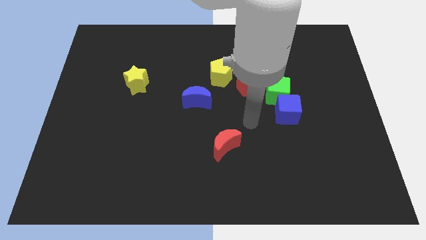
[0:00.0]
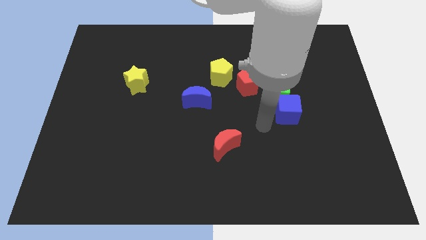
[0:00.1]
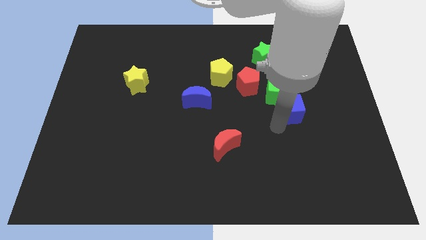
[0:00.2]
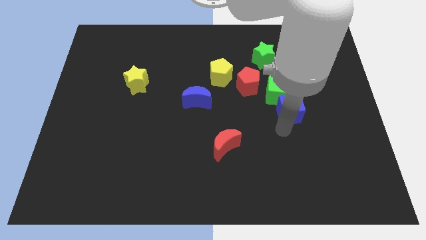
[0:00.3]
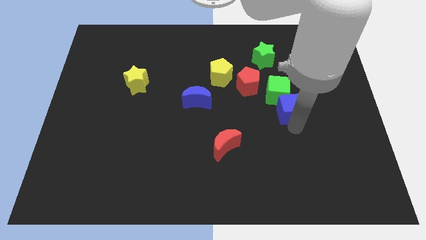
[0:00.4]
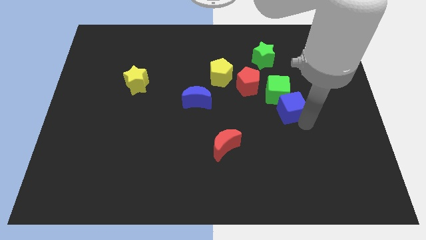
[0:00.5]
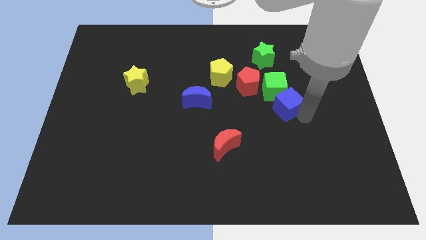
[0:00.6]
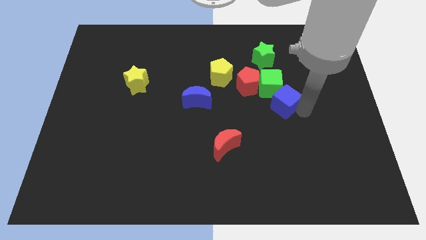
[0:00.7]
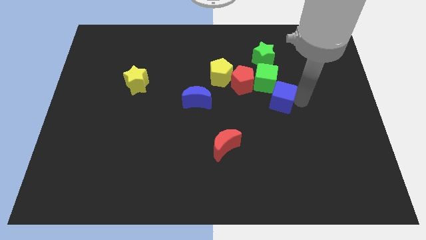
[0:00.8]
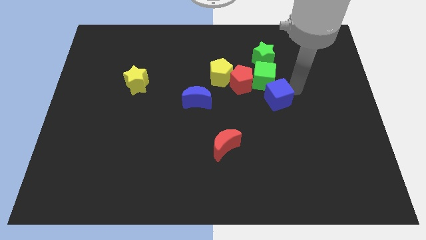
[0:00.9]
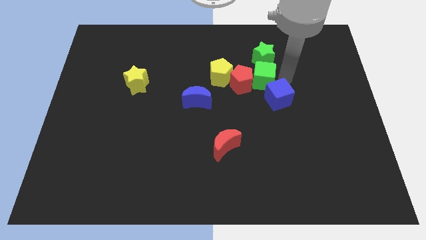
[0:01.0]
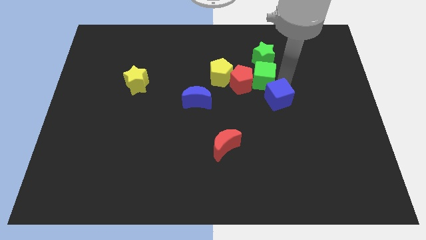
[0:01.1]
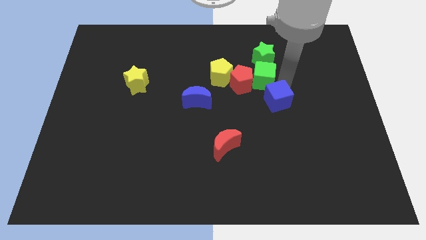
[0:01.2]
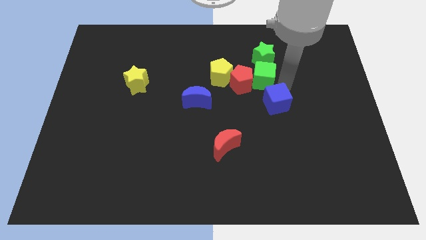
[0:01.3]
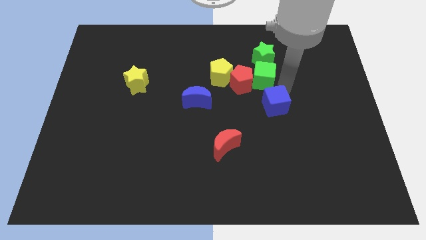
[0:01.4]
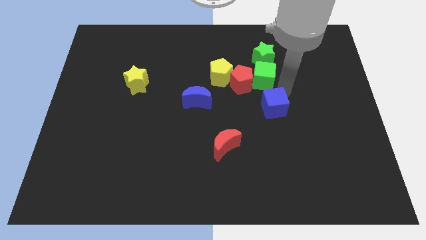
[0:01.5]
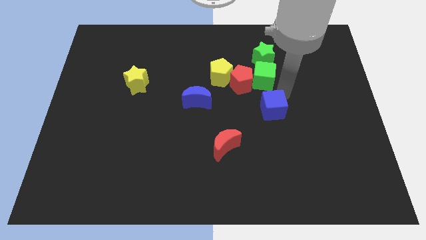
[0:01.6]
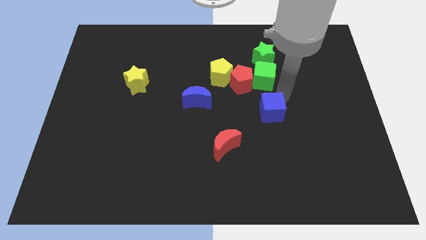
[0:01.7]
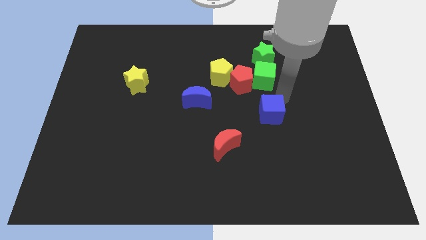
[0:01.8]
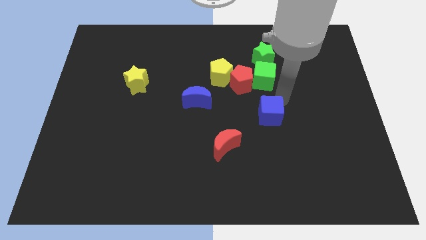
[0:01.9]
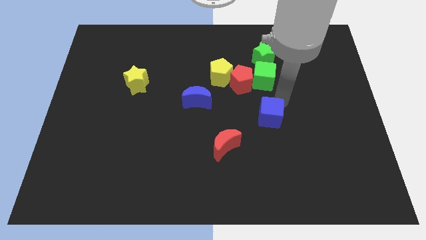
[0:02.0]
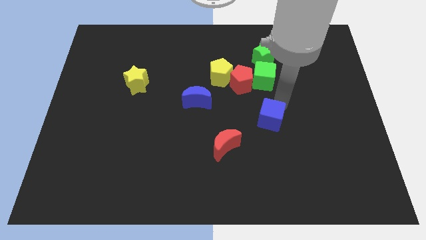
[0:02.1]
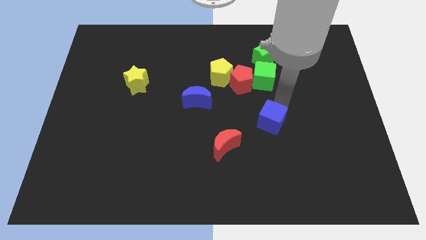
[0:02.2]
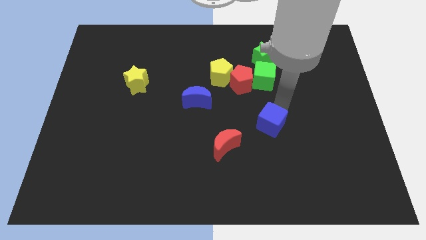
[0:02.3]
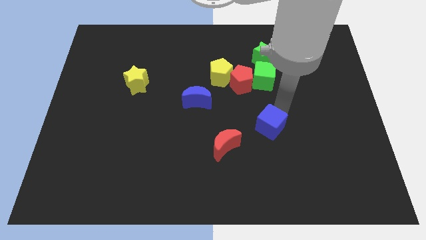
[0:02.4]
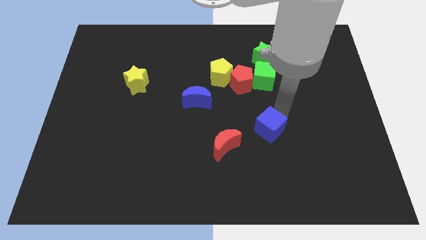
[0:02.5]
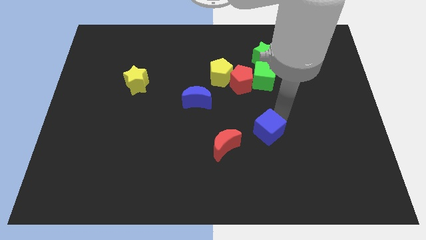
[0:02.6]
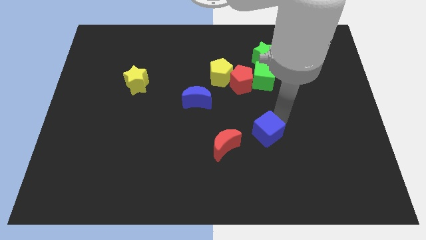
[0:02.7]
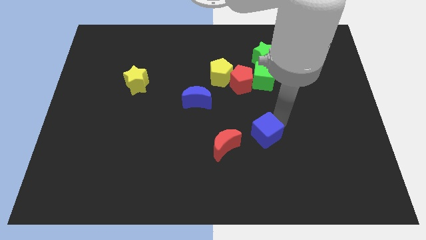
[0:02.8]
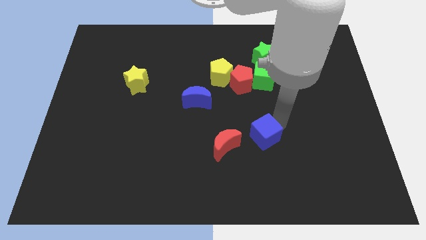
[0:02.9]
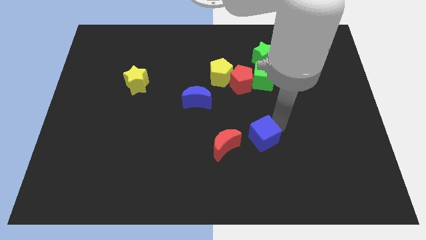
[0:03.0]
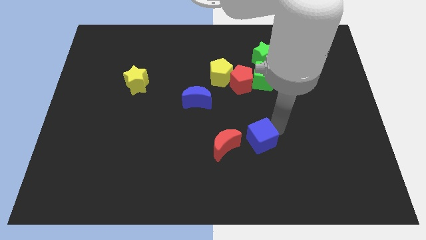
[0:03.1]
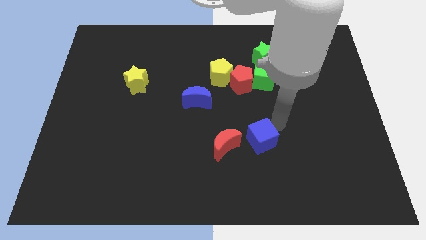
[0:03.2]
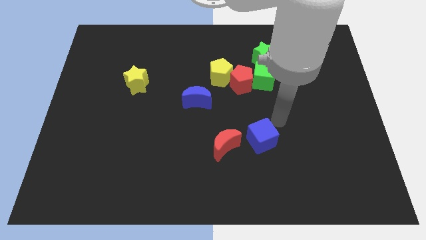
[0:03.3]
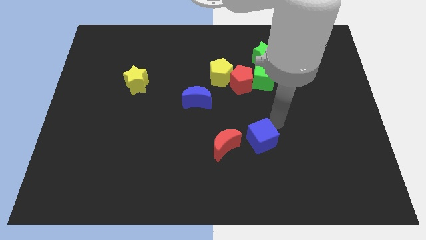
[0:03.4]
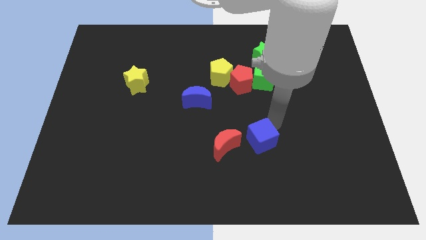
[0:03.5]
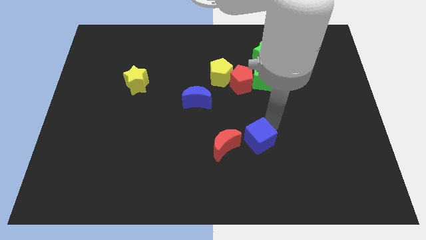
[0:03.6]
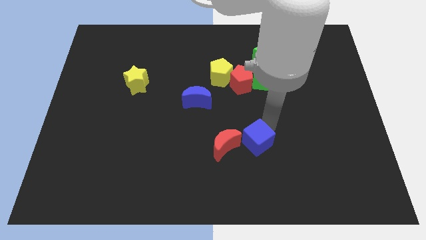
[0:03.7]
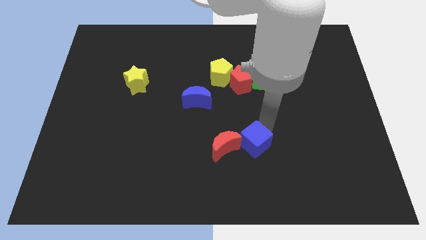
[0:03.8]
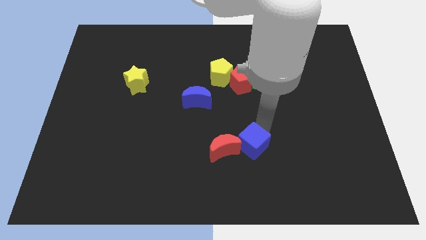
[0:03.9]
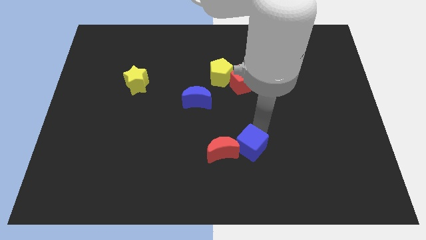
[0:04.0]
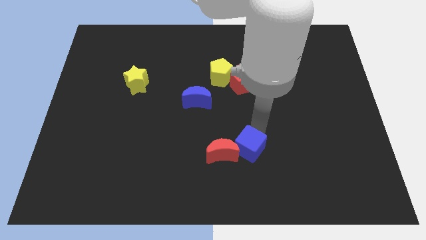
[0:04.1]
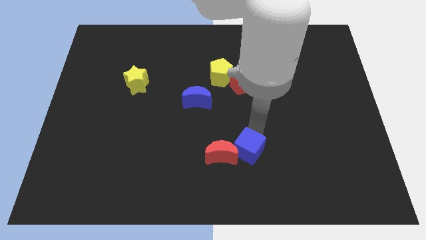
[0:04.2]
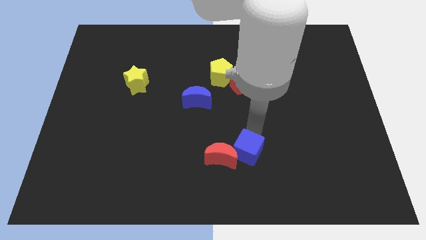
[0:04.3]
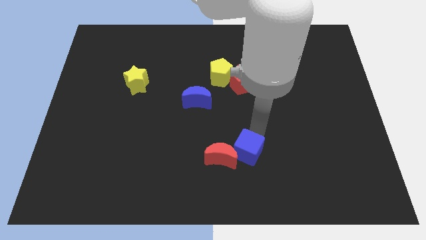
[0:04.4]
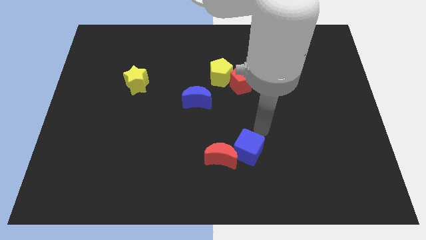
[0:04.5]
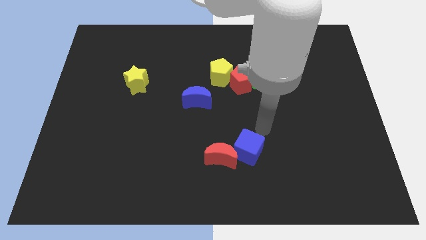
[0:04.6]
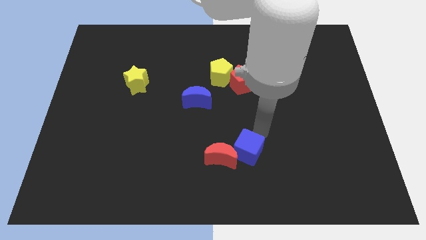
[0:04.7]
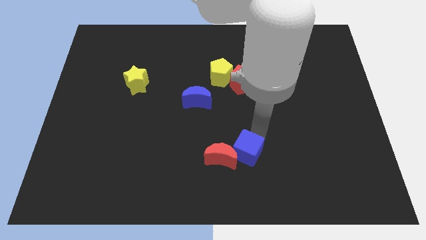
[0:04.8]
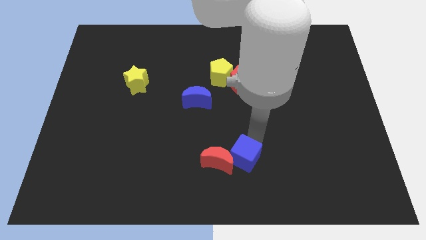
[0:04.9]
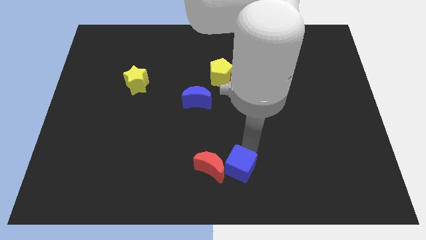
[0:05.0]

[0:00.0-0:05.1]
slide the blue cube to the bottom side
